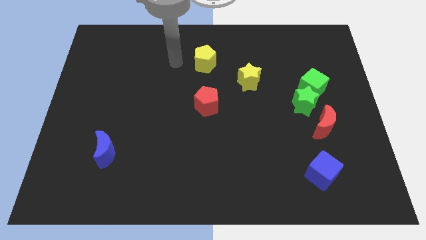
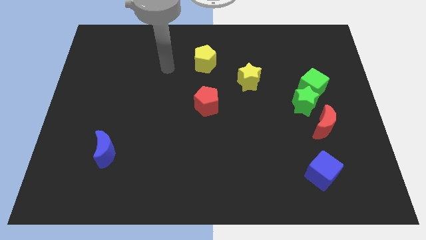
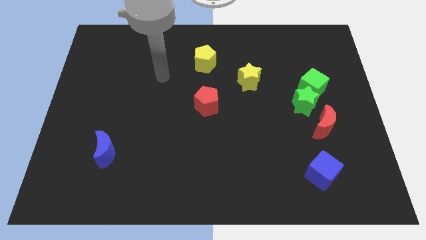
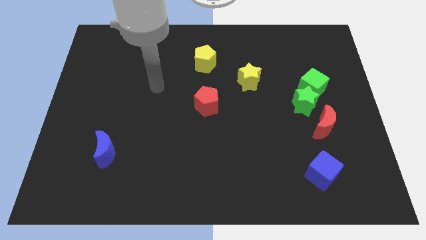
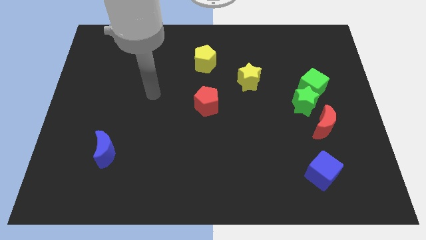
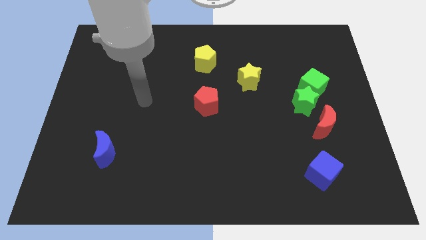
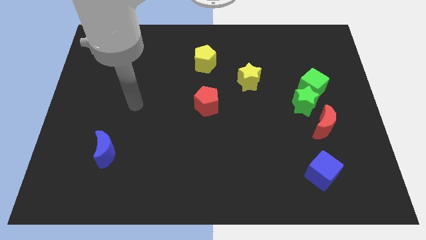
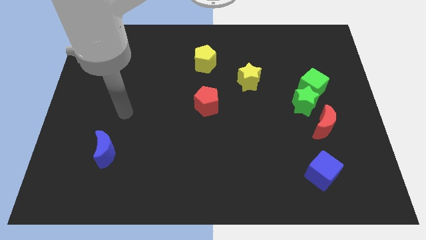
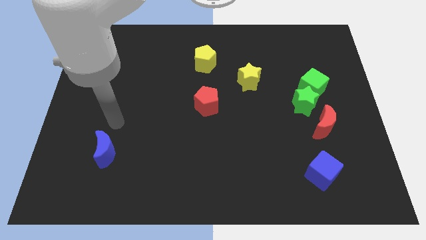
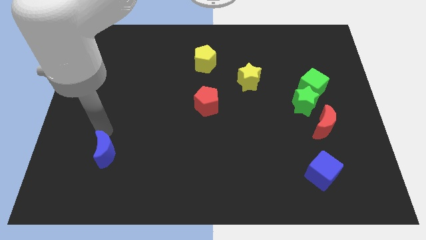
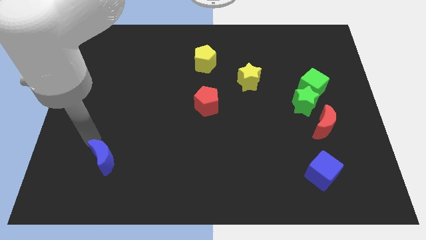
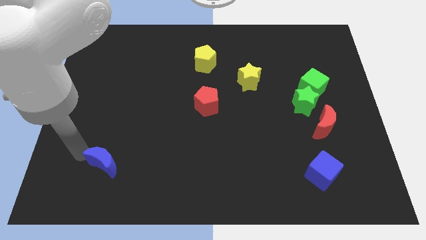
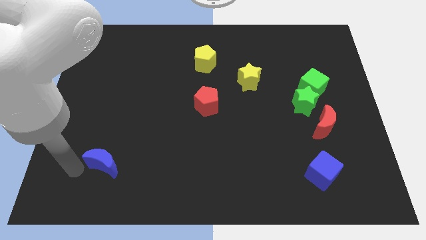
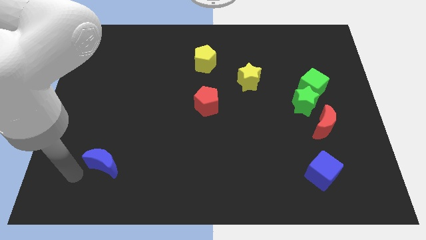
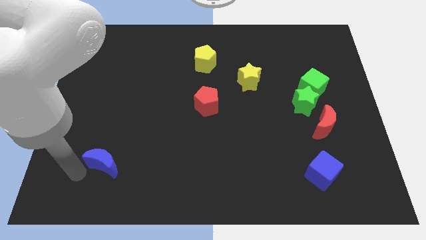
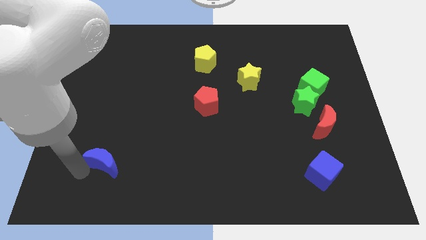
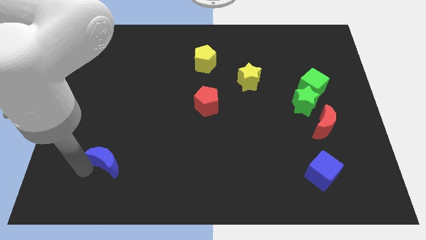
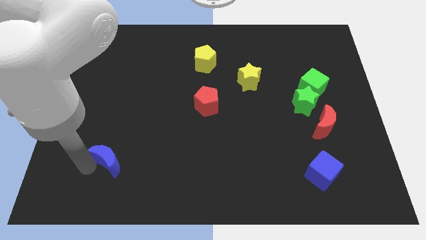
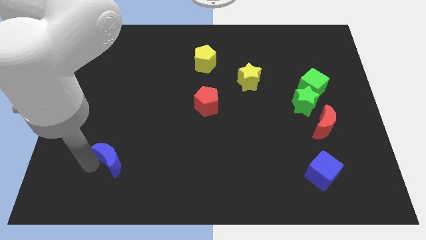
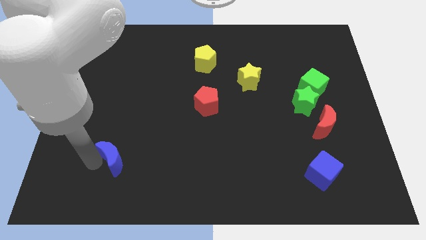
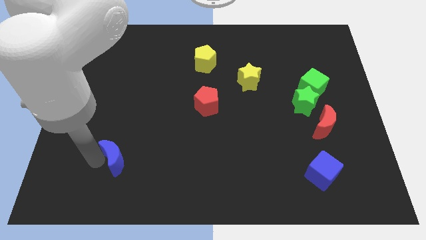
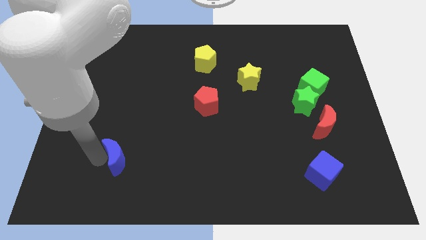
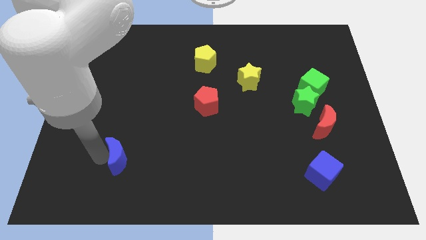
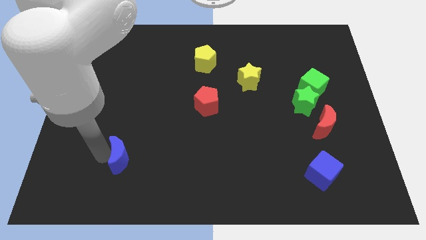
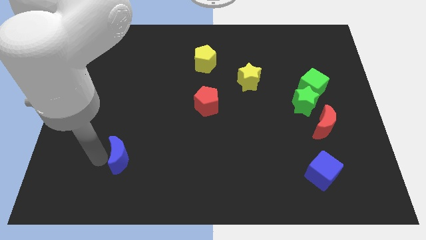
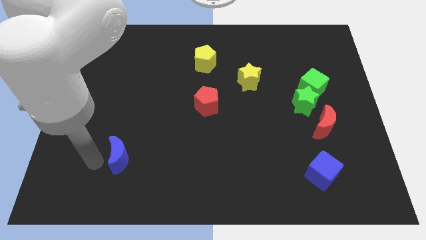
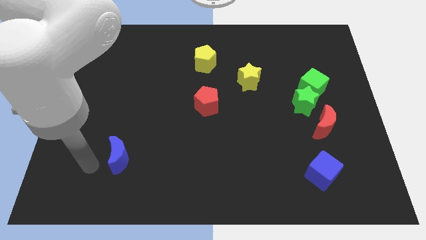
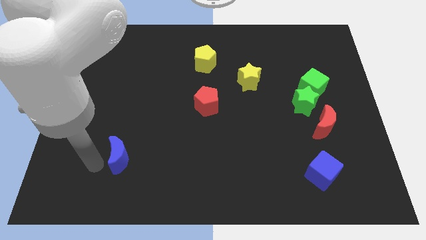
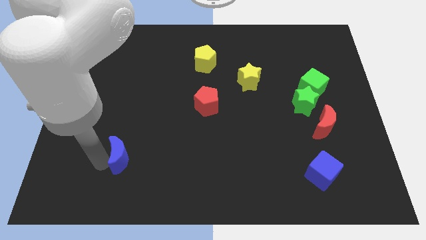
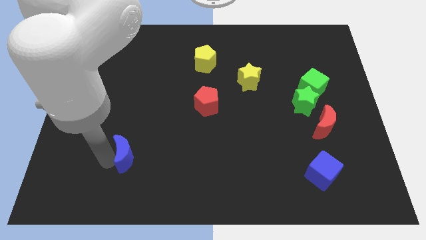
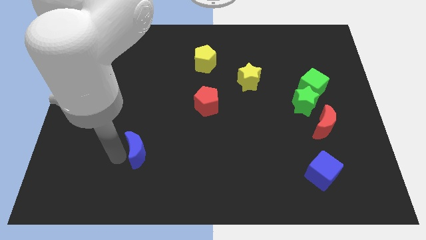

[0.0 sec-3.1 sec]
move the blue moon slightly to the right

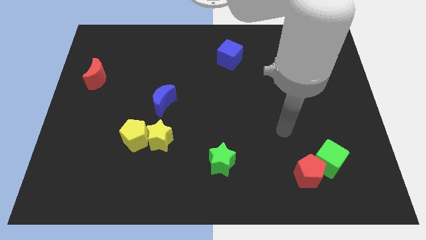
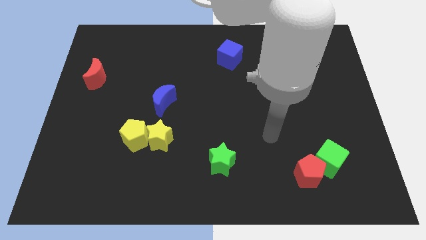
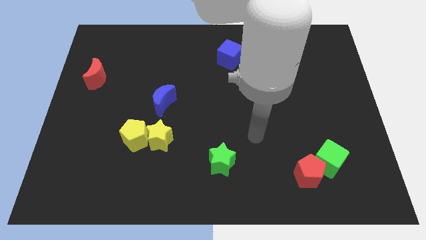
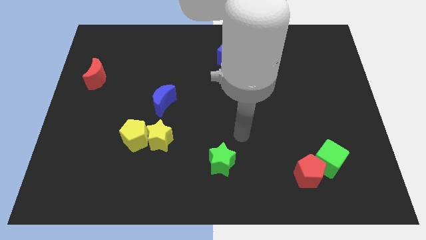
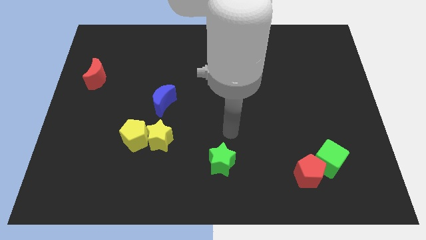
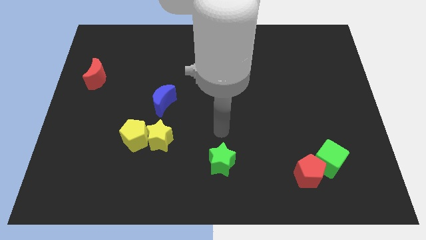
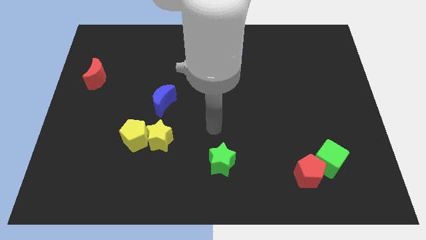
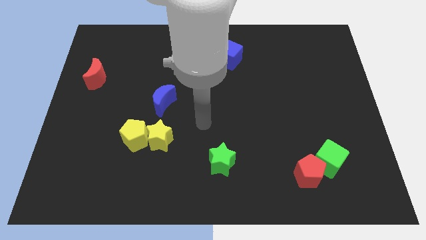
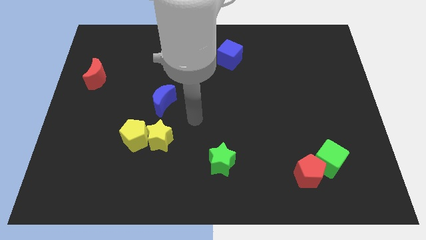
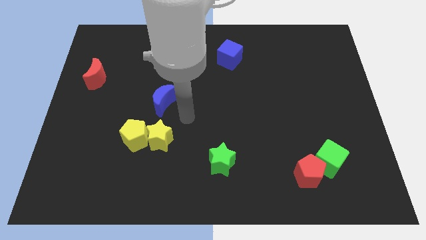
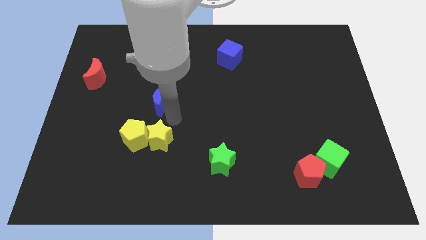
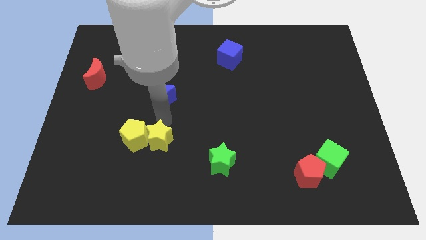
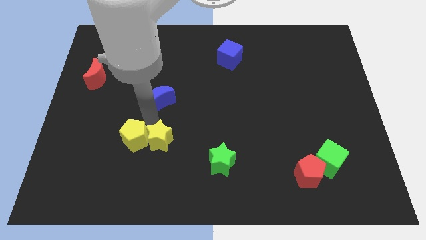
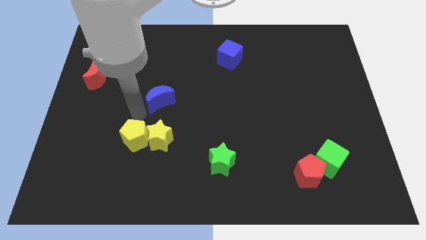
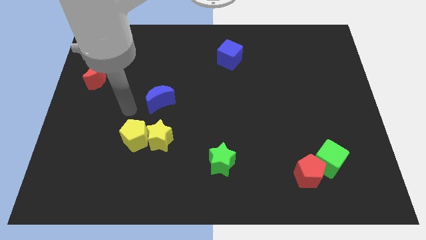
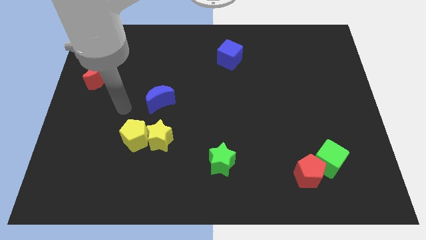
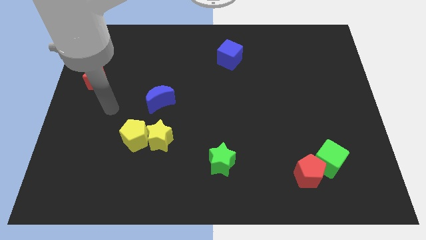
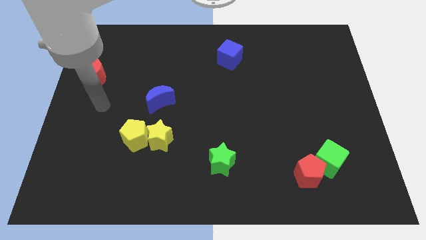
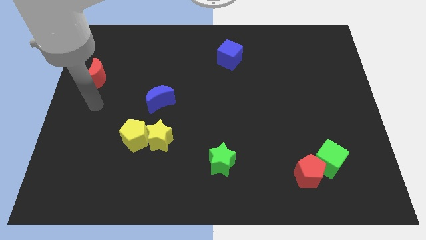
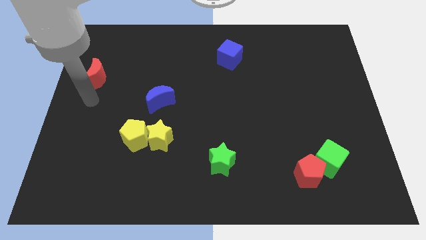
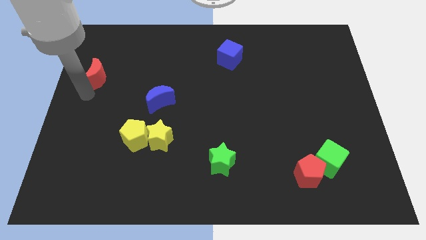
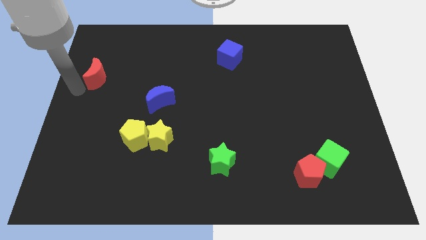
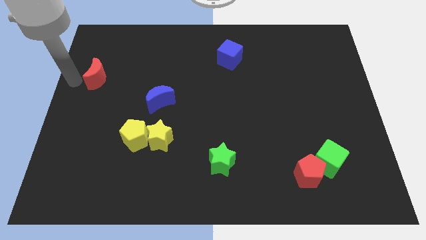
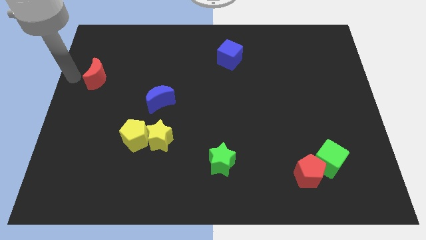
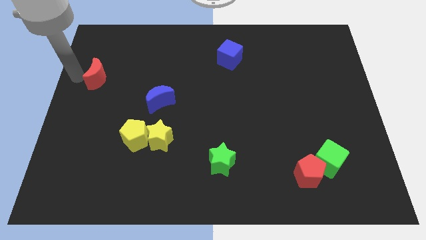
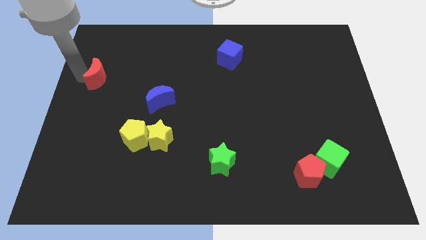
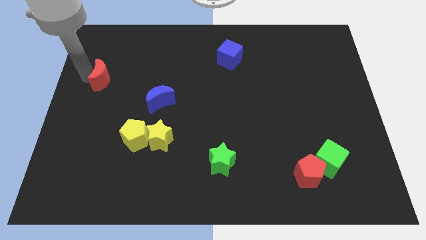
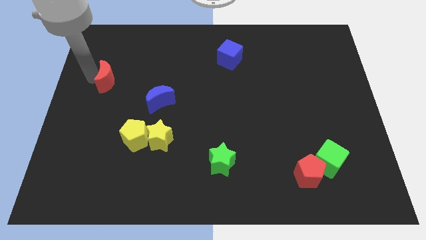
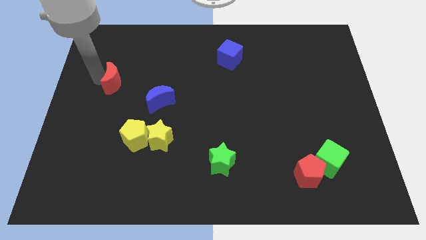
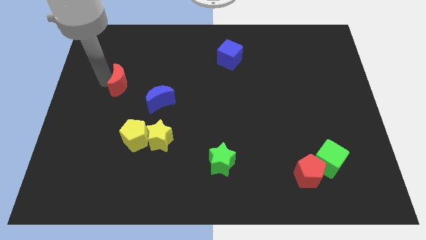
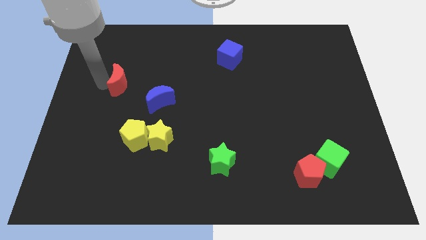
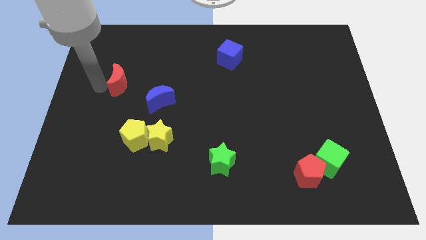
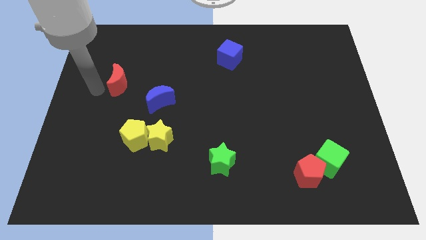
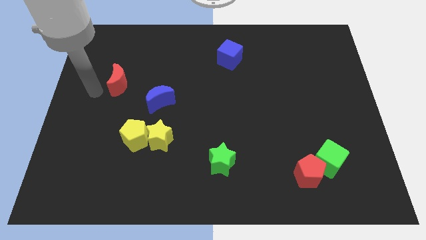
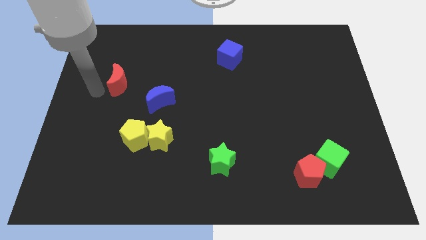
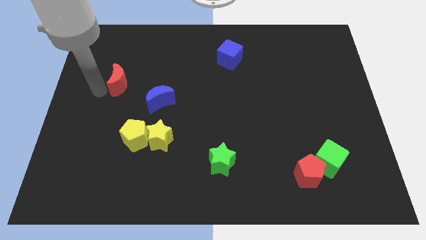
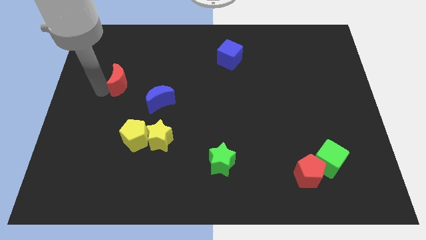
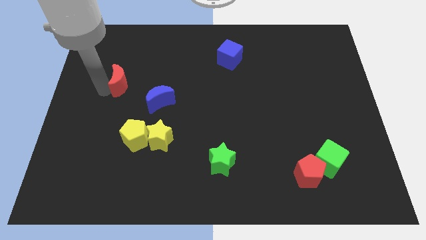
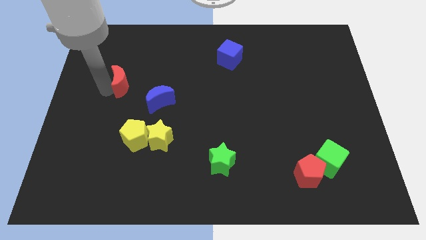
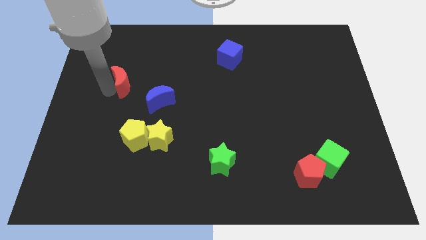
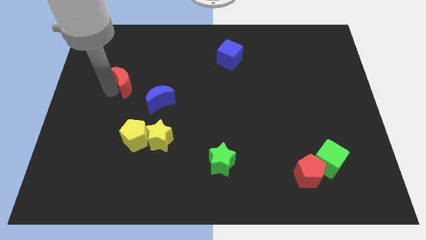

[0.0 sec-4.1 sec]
push the red moon to the right slightly

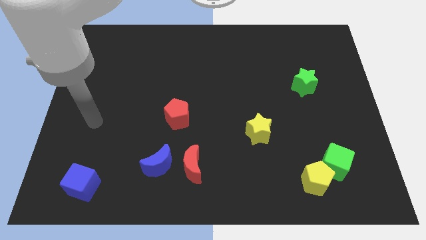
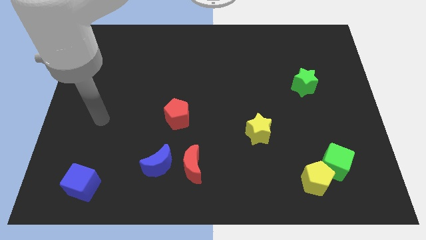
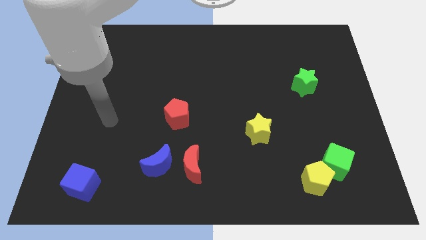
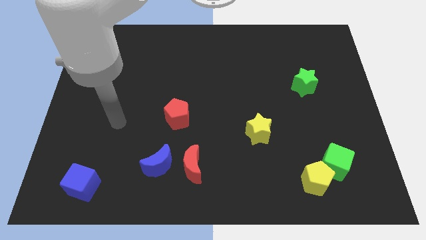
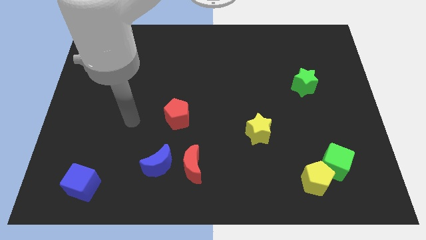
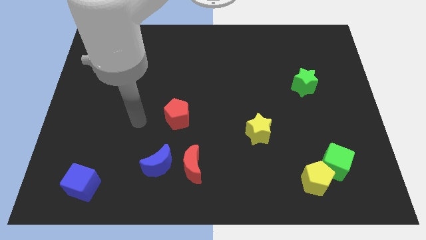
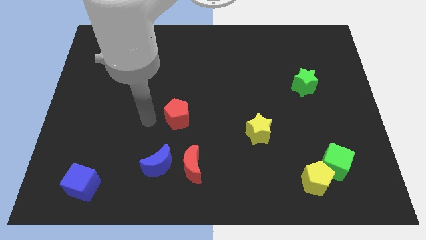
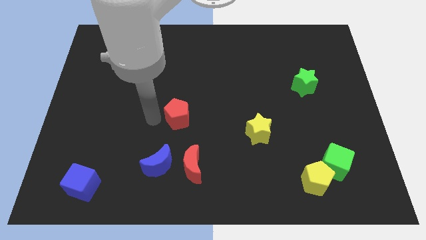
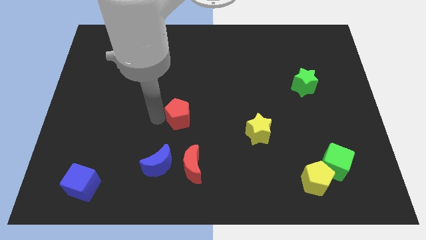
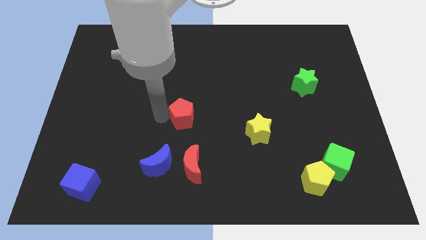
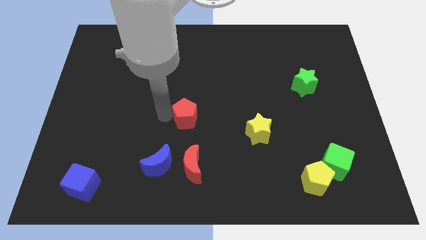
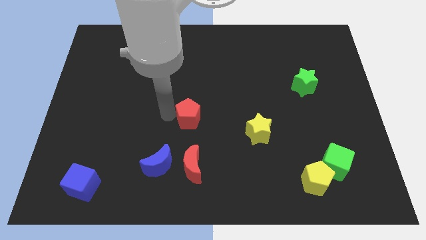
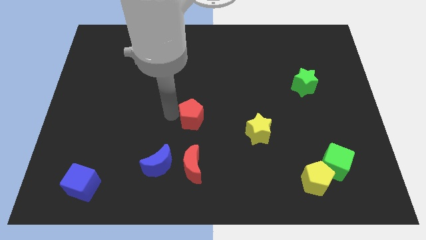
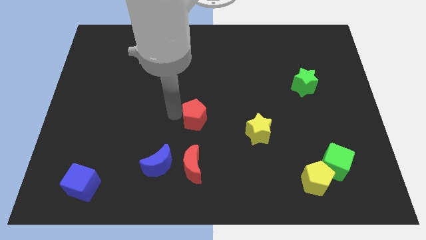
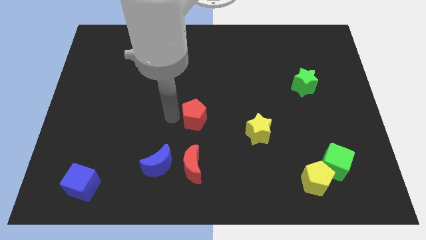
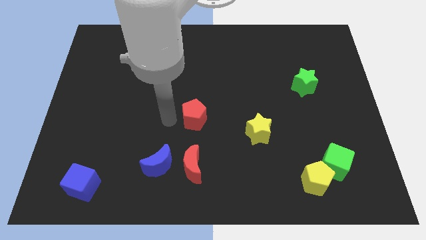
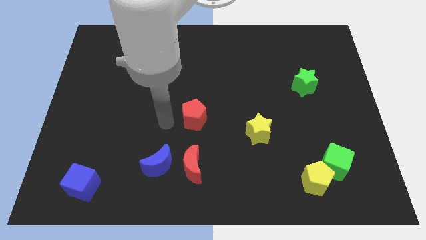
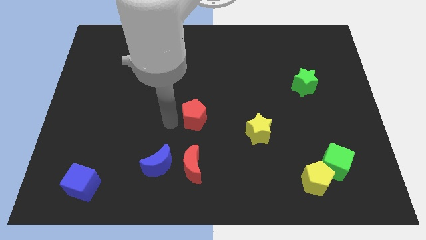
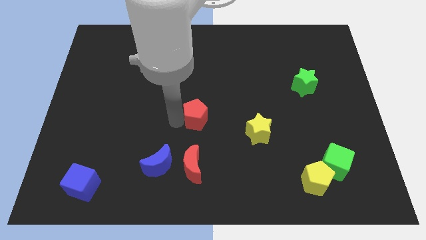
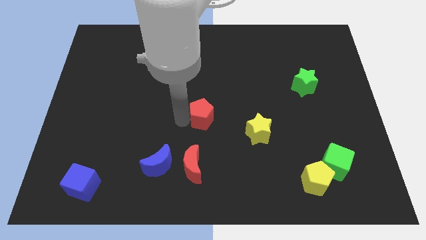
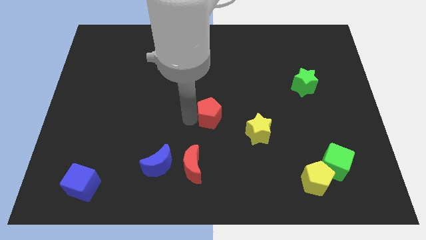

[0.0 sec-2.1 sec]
move the red pentagon somewhat to the right
